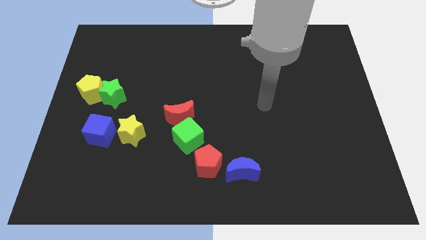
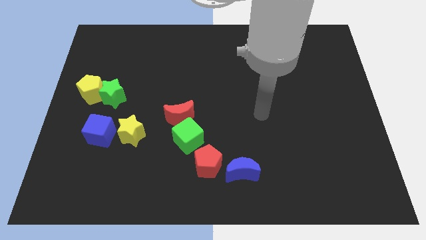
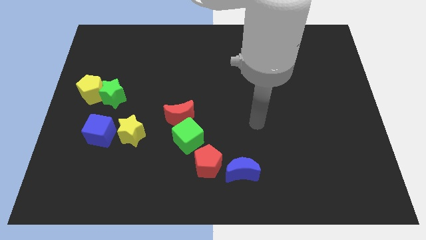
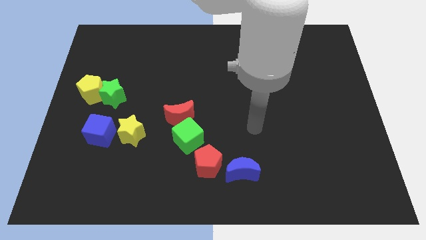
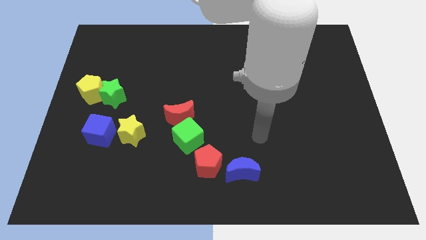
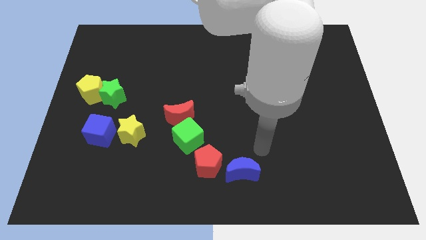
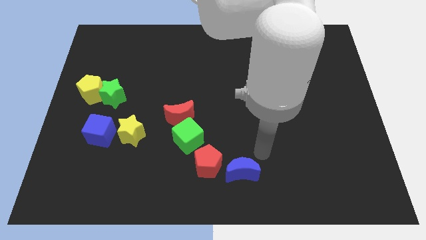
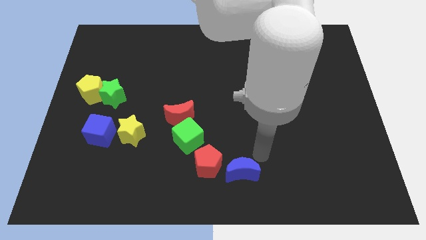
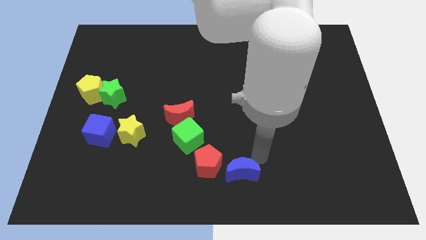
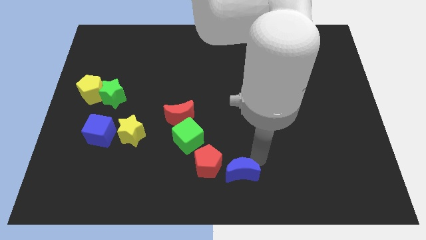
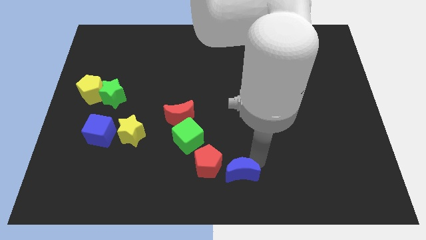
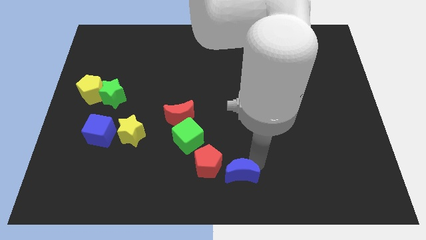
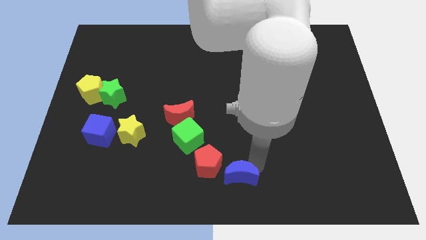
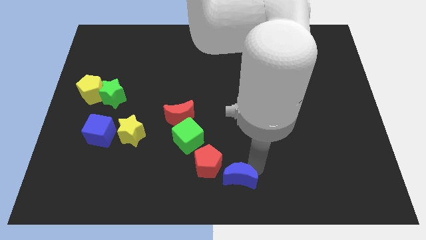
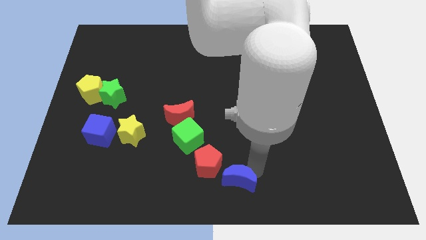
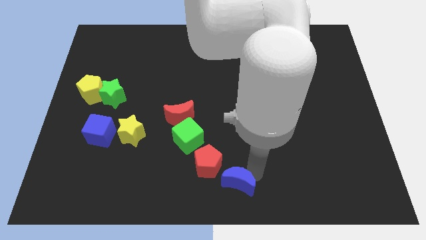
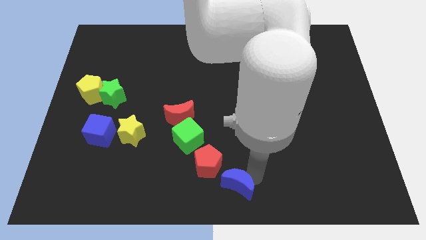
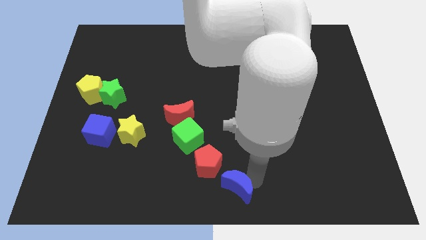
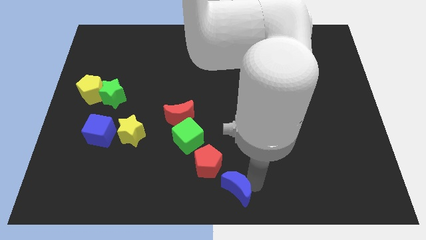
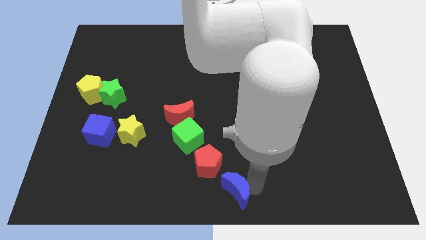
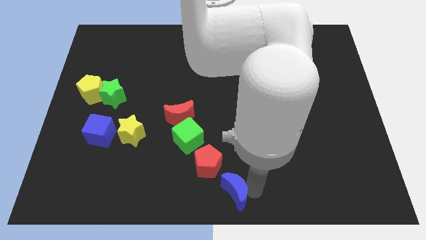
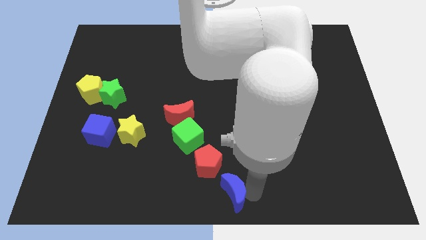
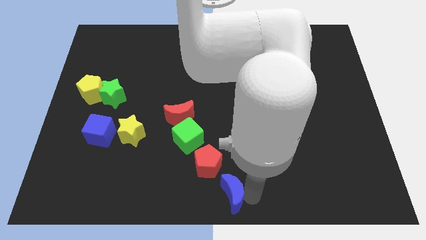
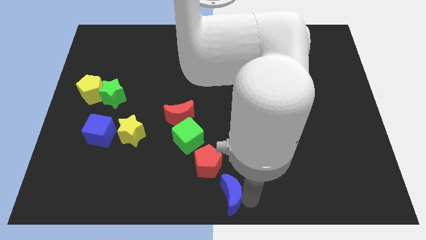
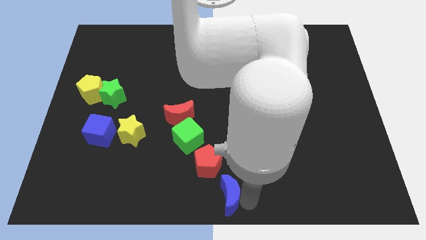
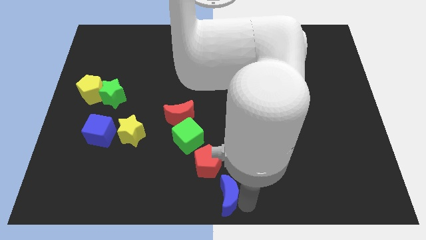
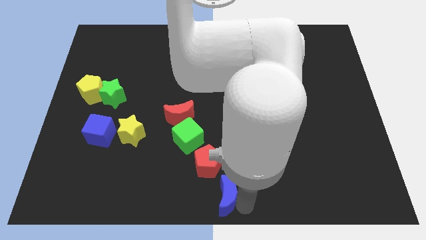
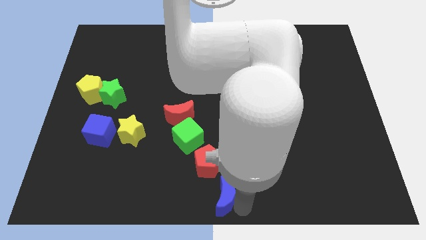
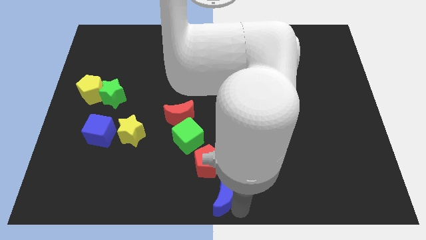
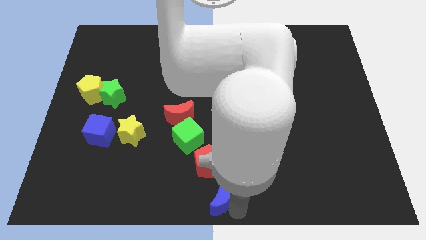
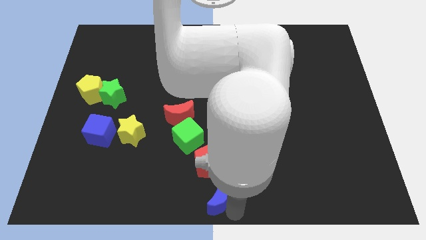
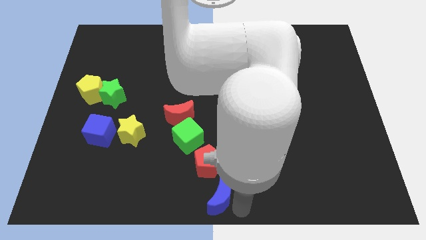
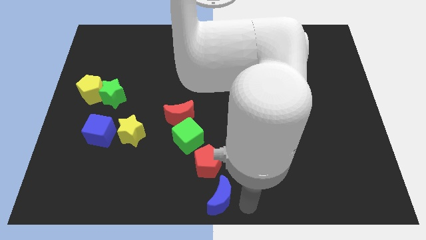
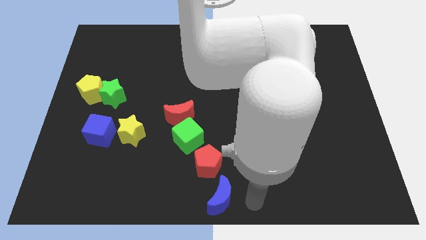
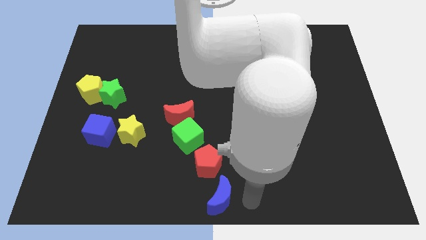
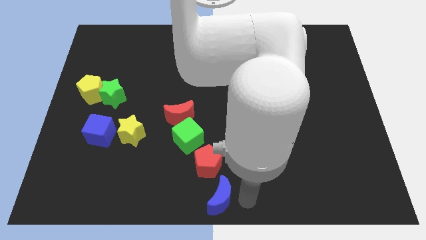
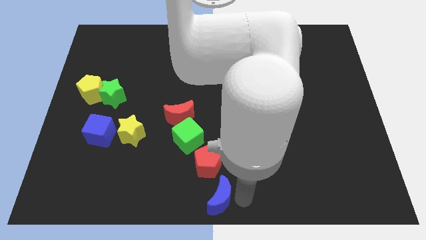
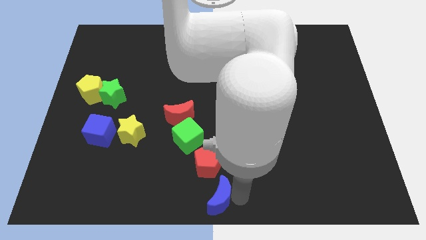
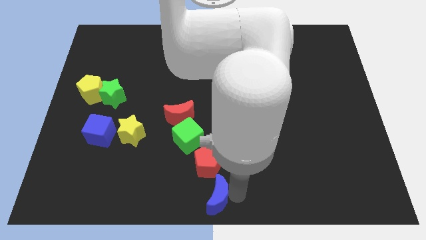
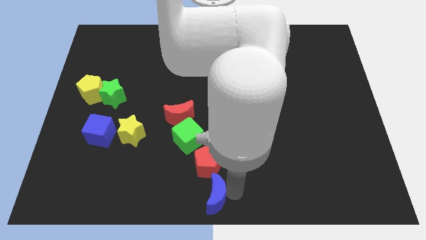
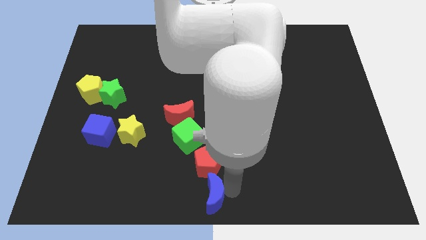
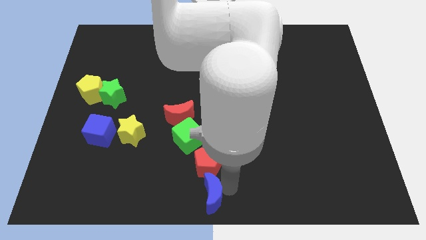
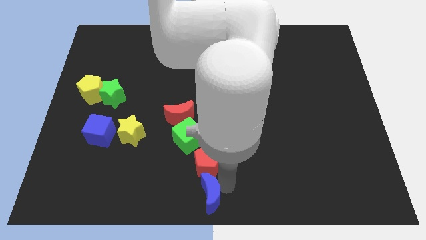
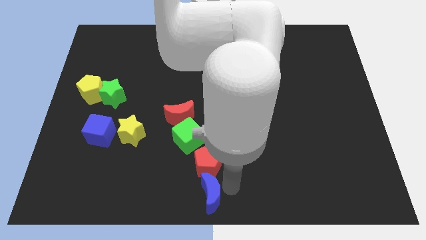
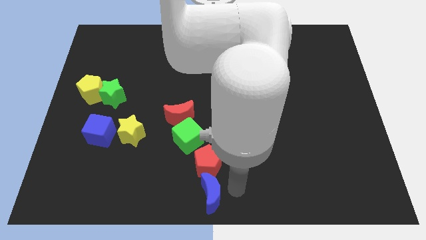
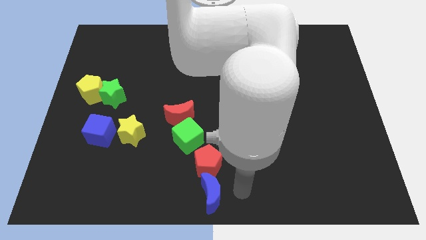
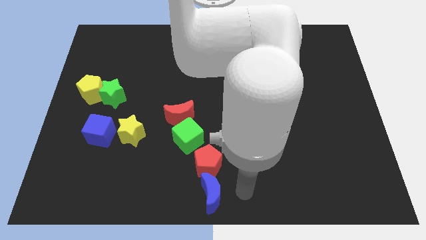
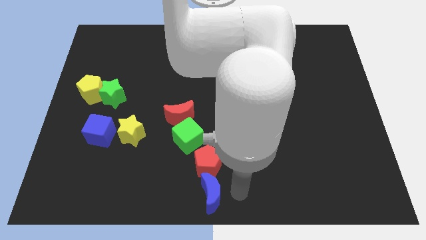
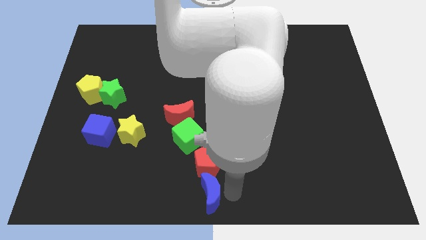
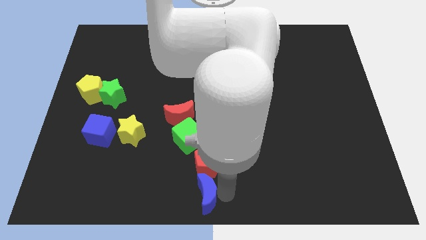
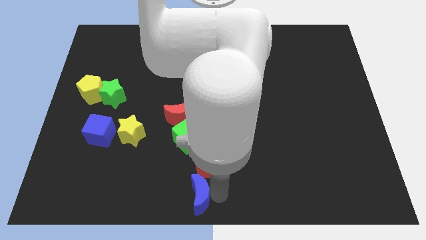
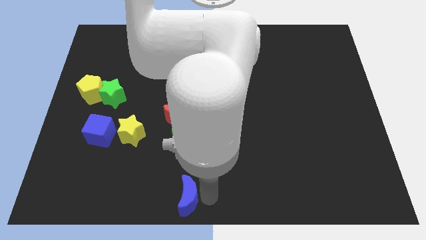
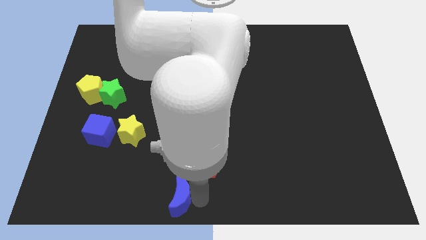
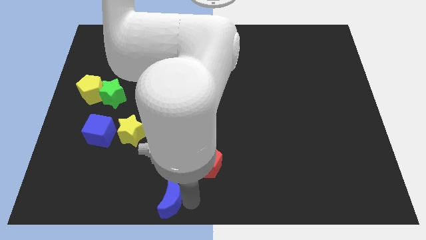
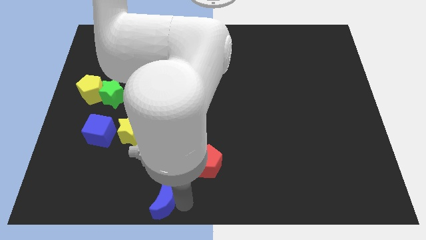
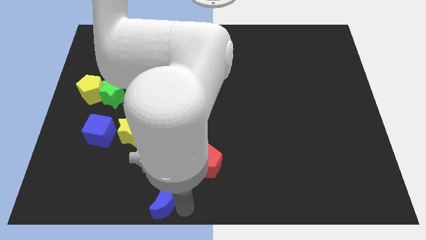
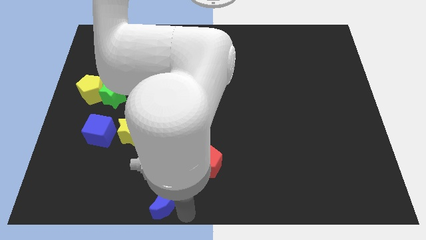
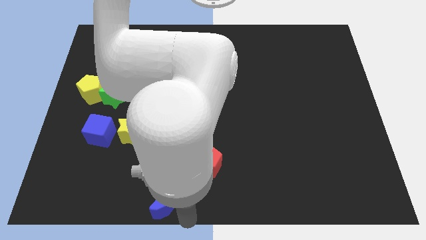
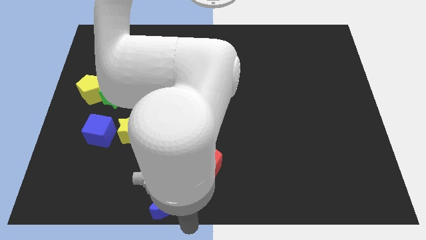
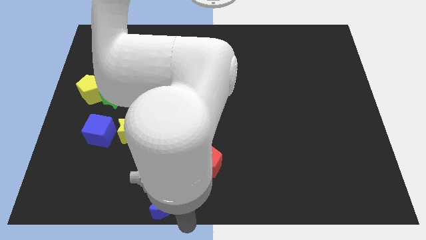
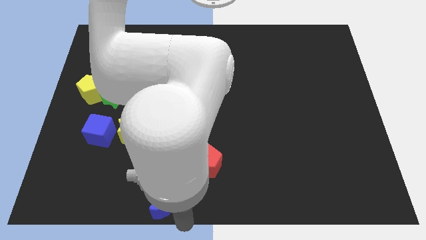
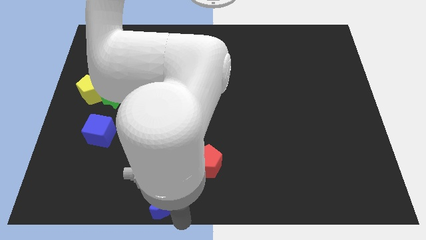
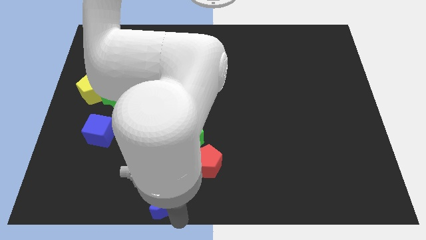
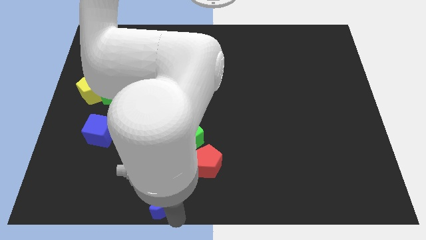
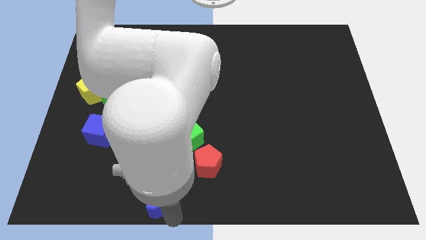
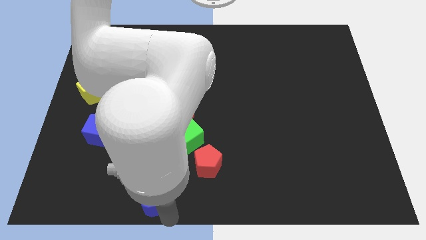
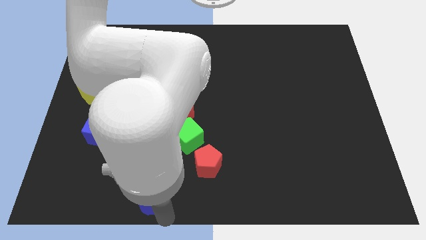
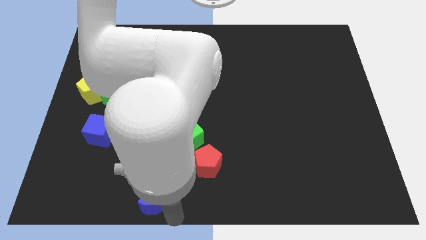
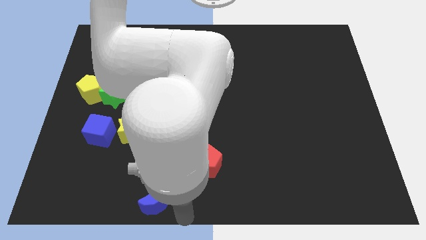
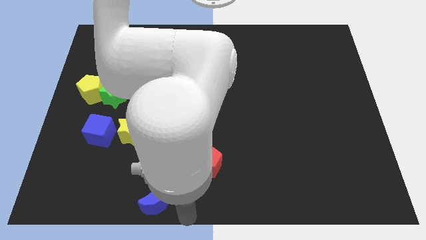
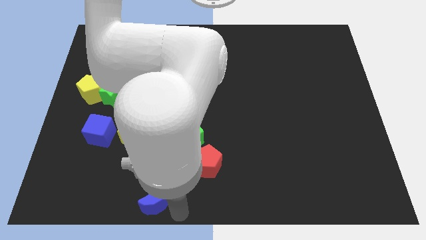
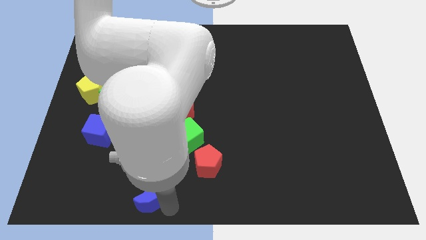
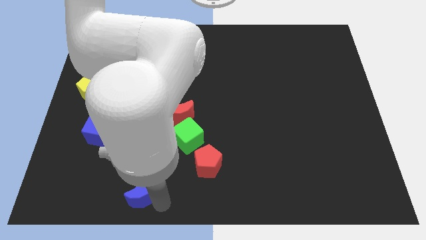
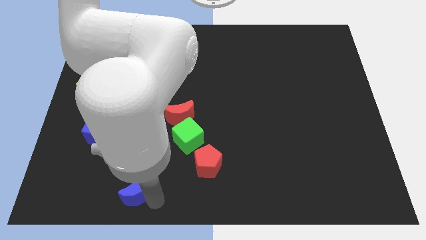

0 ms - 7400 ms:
slide the blue moon left

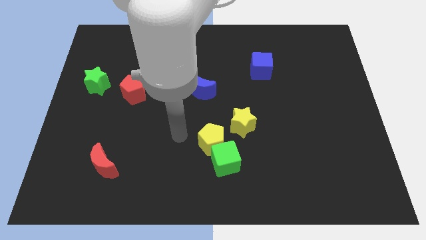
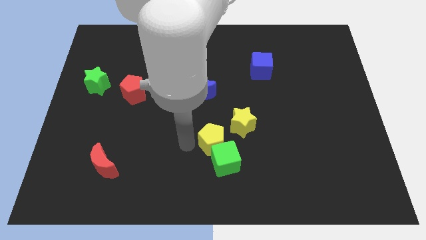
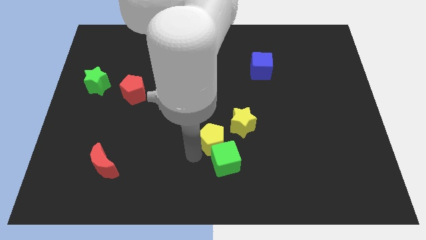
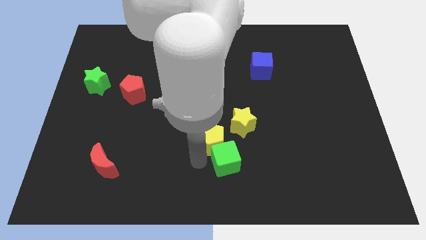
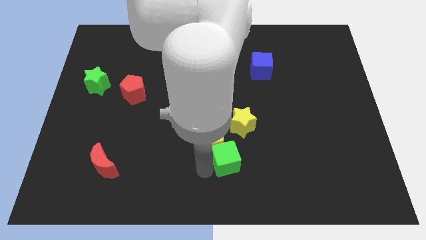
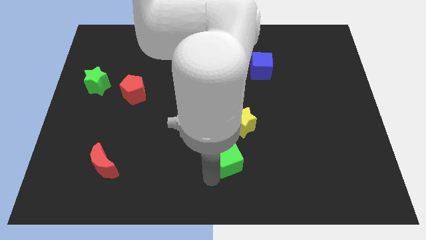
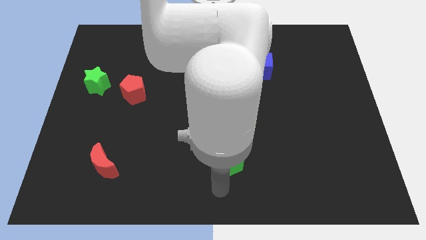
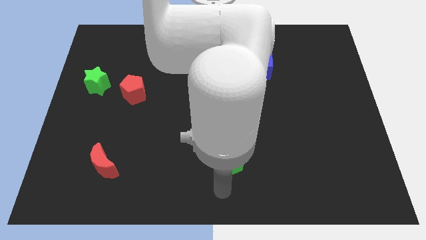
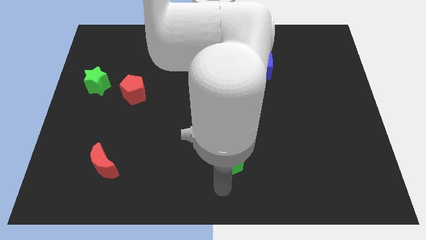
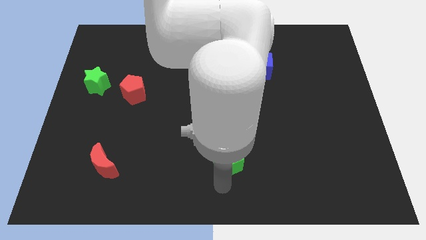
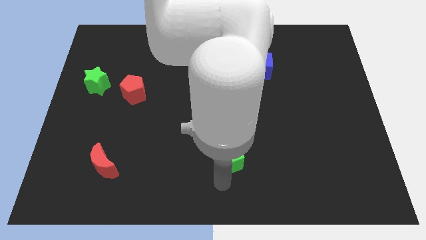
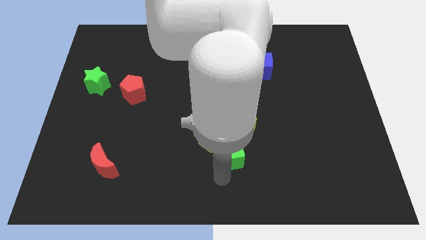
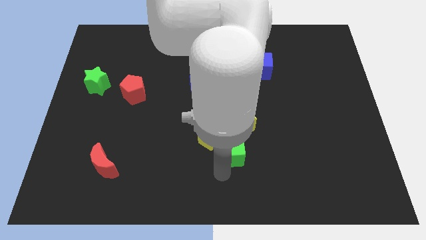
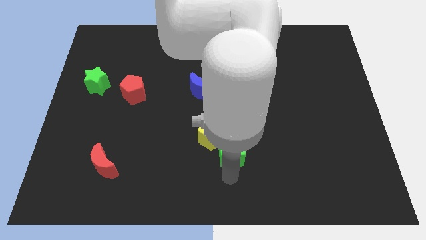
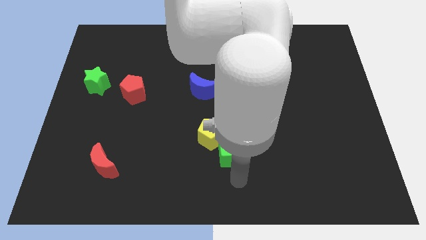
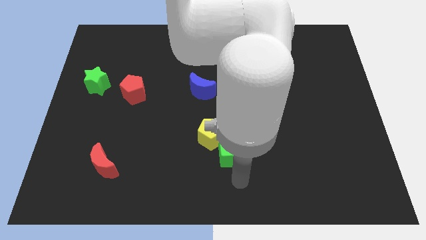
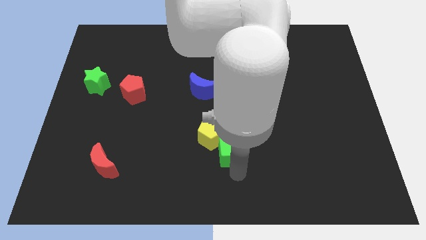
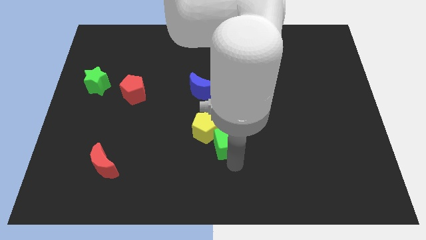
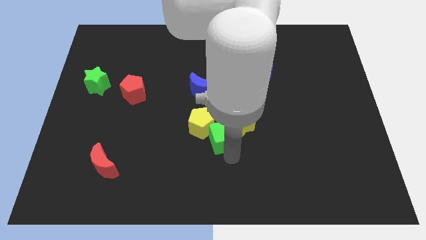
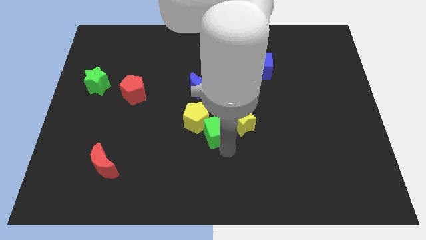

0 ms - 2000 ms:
slightly move the green cube up
